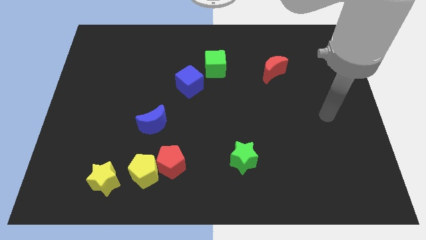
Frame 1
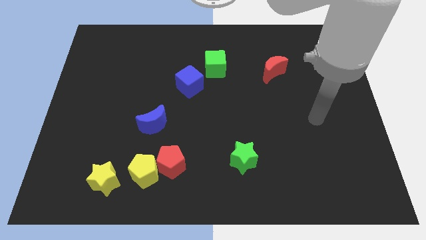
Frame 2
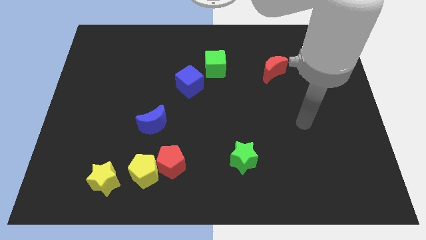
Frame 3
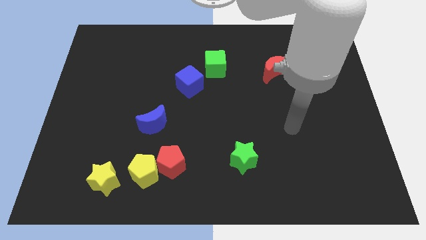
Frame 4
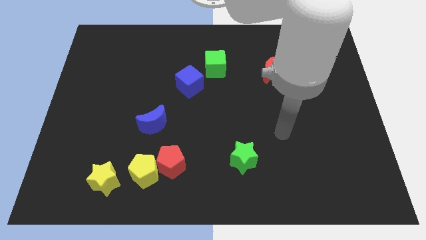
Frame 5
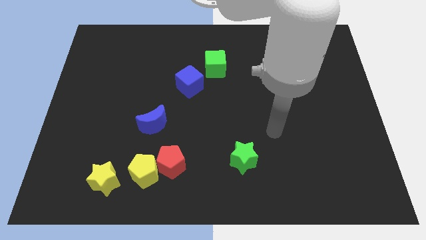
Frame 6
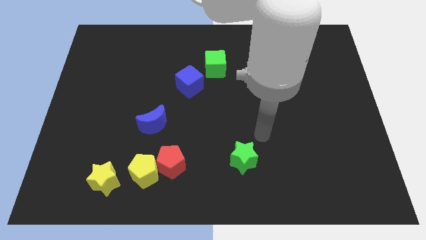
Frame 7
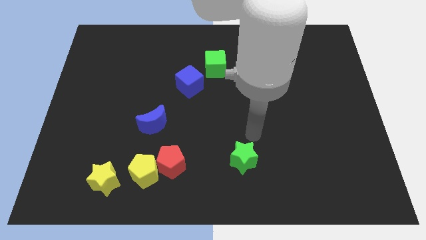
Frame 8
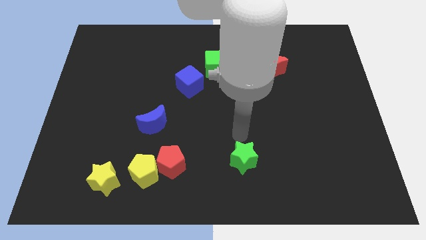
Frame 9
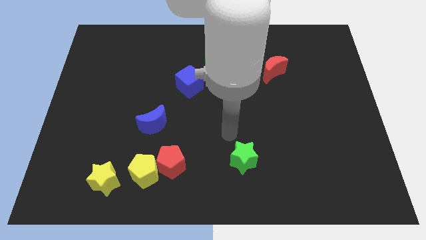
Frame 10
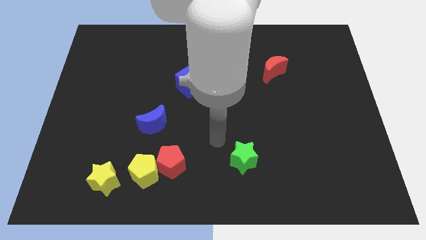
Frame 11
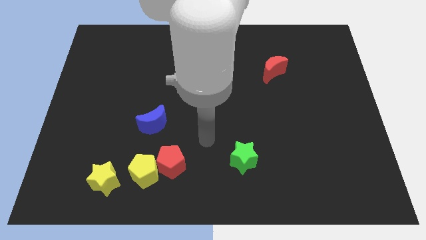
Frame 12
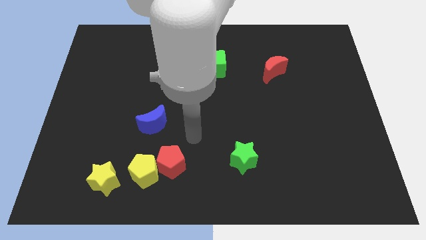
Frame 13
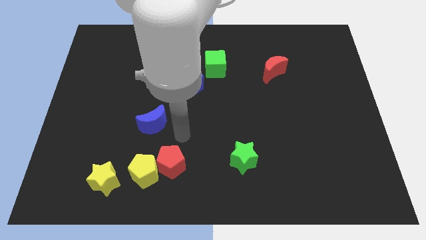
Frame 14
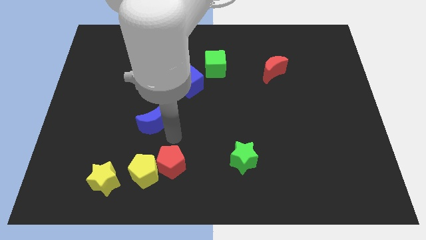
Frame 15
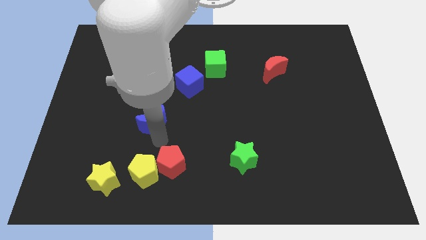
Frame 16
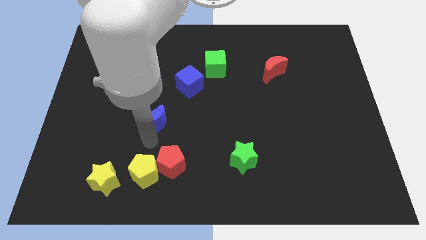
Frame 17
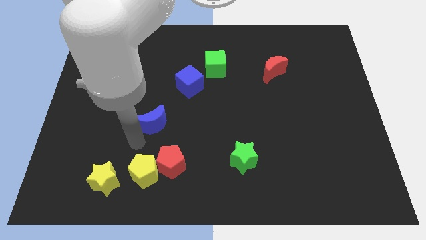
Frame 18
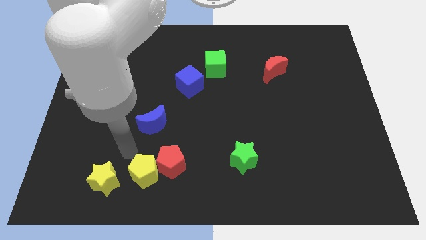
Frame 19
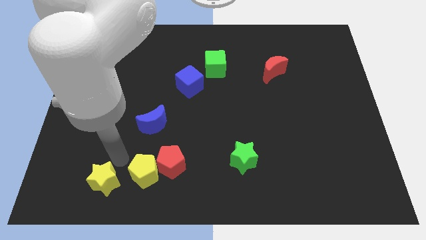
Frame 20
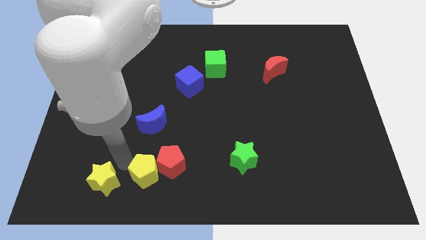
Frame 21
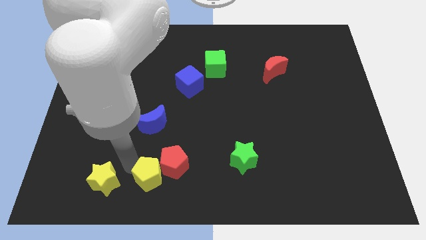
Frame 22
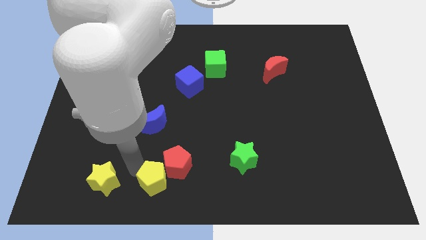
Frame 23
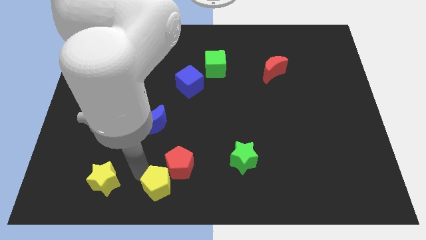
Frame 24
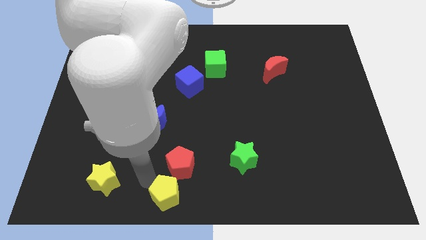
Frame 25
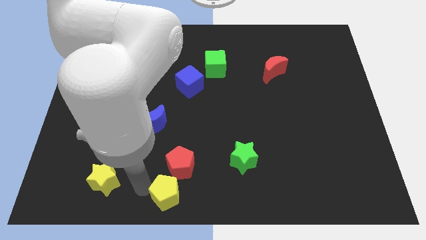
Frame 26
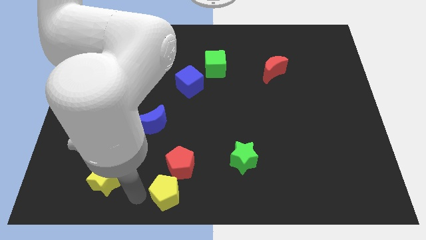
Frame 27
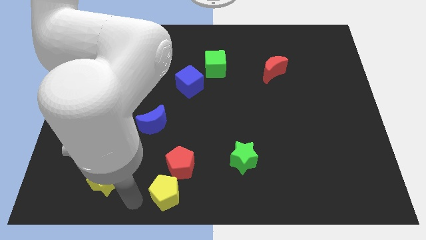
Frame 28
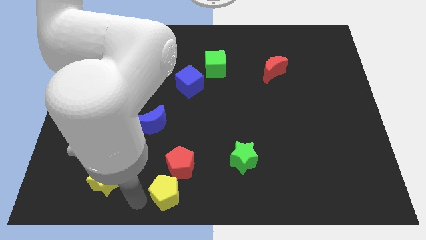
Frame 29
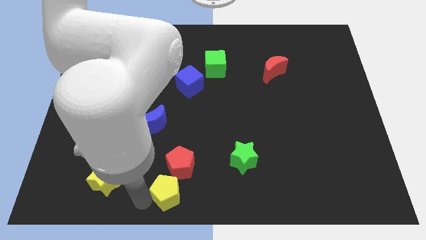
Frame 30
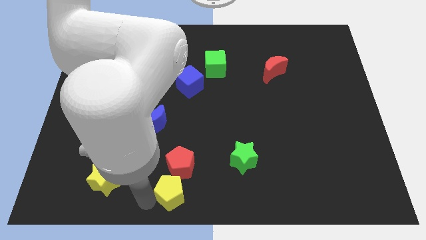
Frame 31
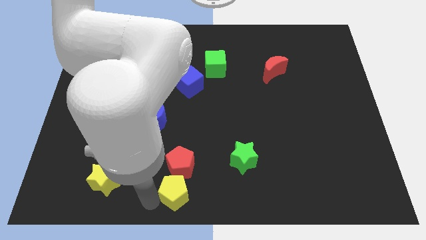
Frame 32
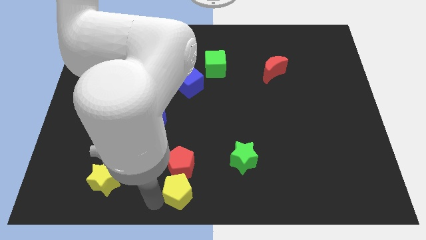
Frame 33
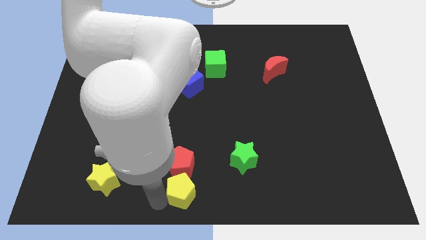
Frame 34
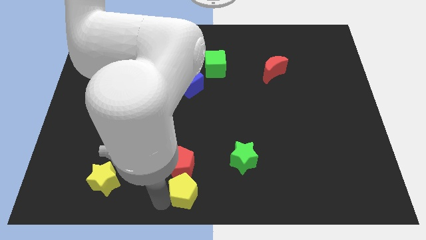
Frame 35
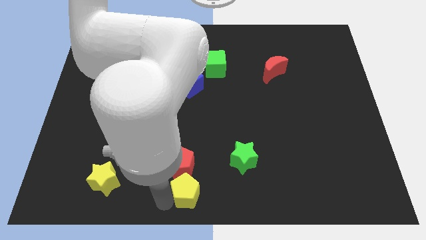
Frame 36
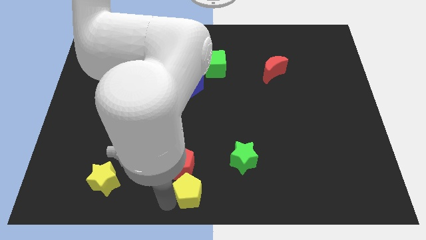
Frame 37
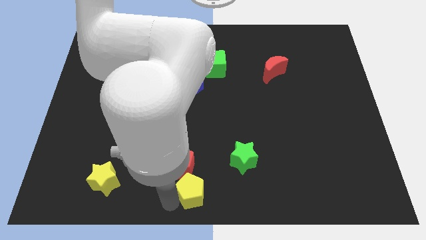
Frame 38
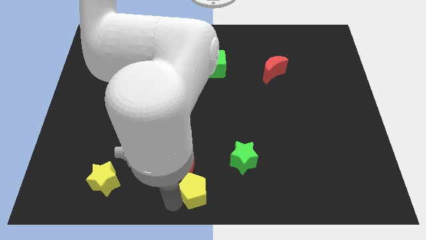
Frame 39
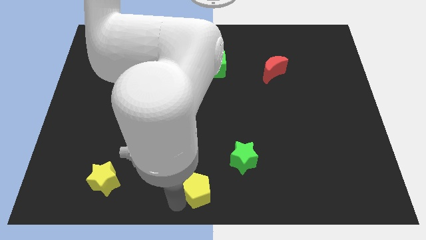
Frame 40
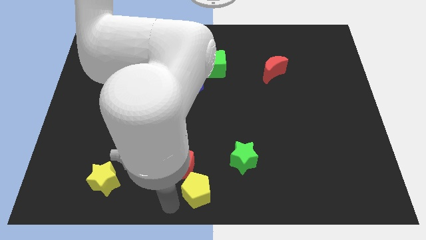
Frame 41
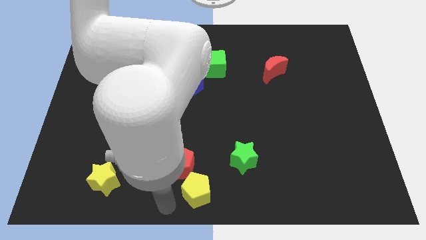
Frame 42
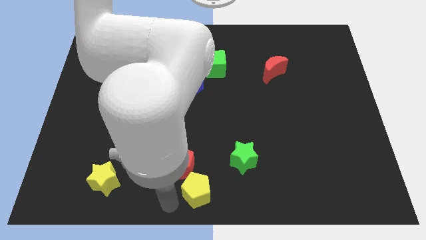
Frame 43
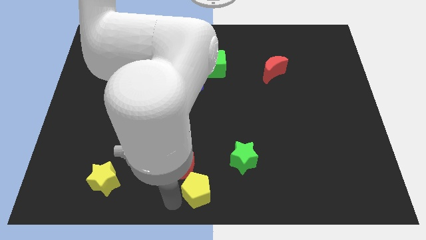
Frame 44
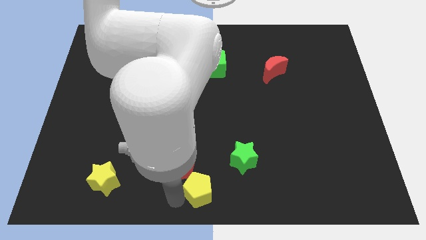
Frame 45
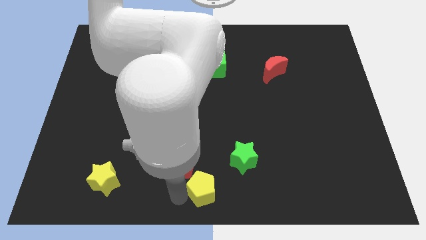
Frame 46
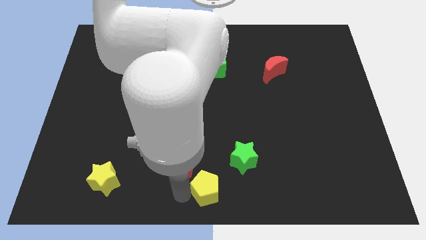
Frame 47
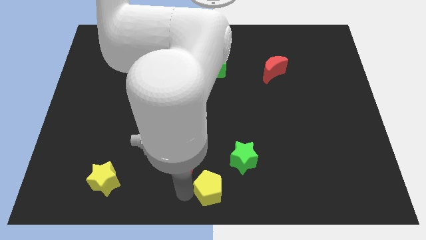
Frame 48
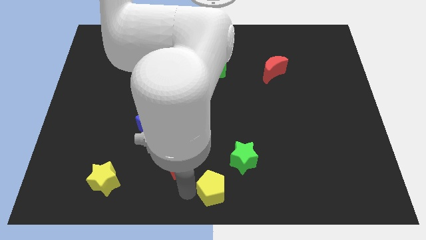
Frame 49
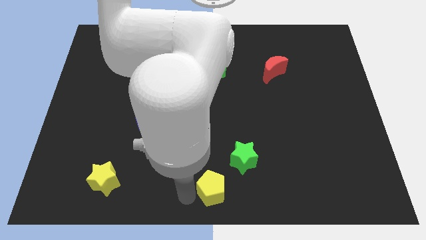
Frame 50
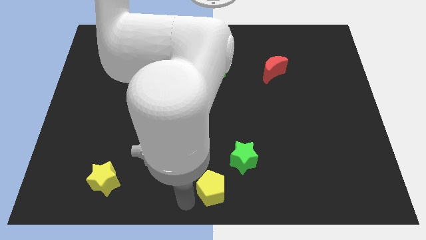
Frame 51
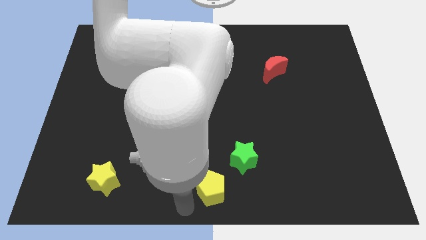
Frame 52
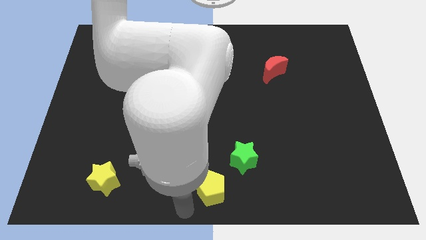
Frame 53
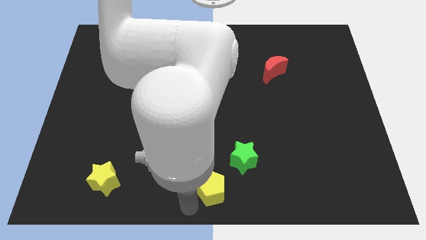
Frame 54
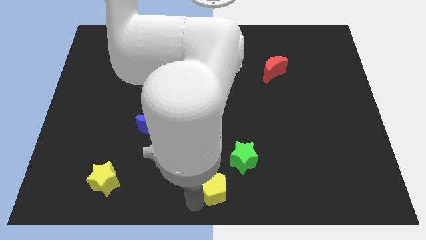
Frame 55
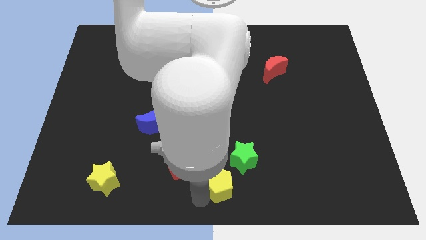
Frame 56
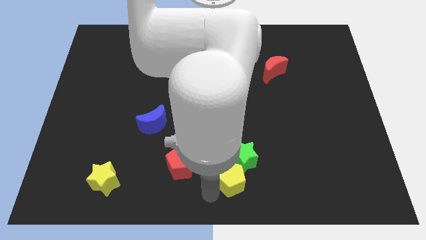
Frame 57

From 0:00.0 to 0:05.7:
put the yellow pentagon towards the green star

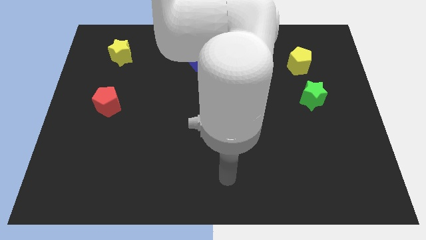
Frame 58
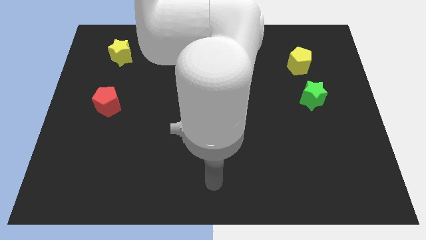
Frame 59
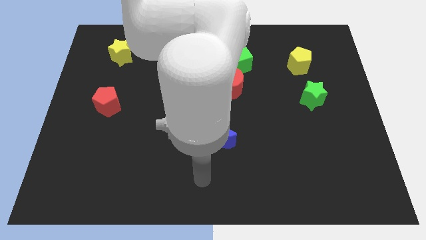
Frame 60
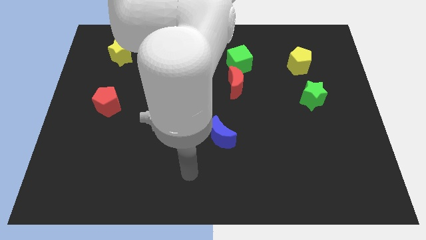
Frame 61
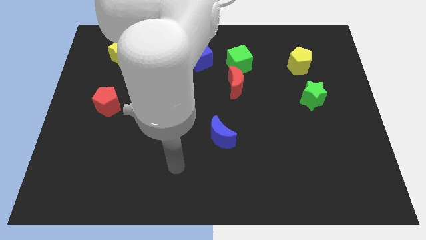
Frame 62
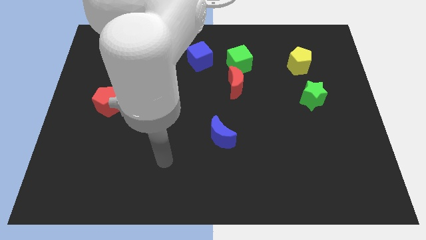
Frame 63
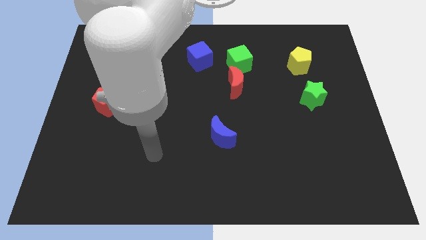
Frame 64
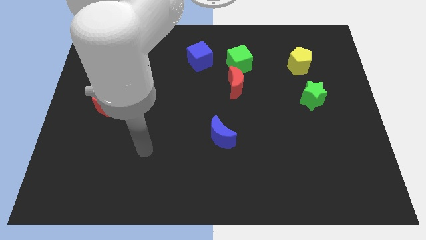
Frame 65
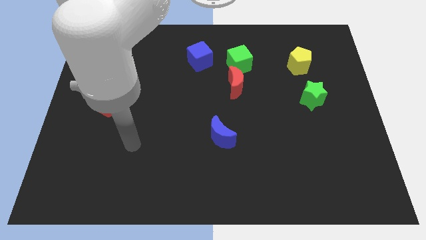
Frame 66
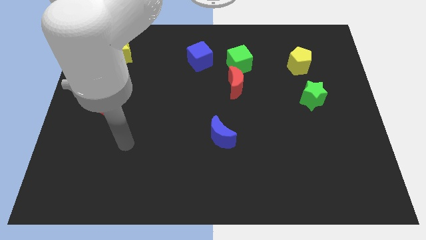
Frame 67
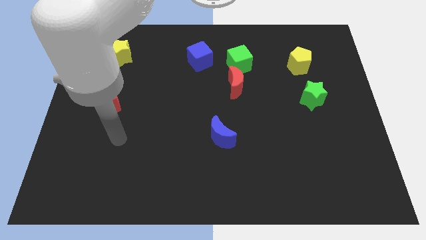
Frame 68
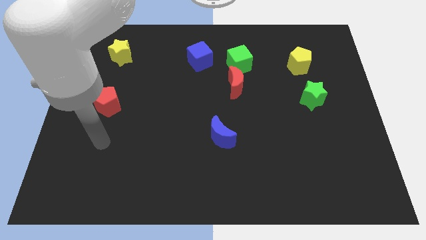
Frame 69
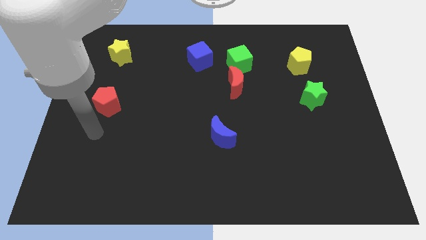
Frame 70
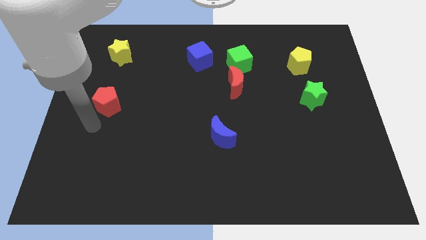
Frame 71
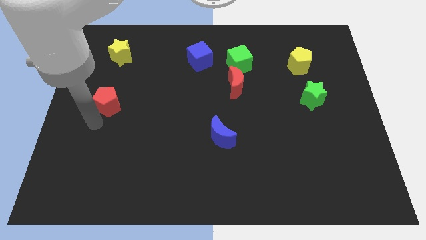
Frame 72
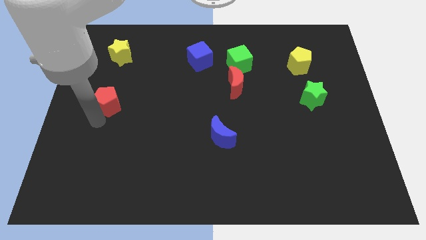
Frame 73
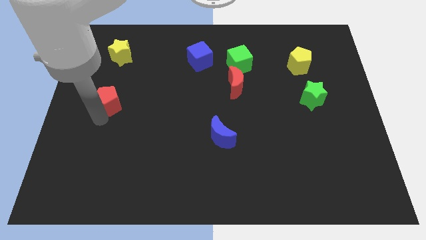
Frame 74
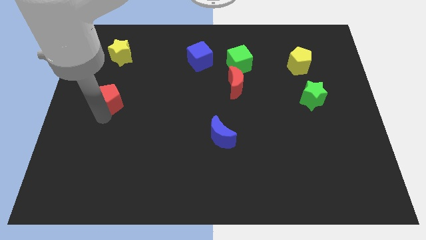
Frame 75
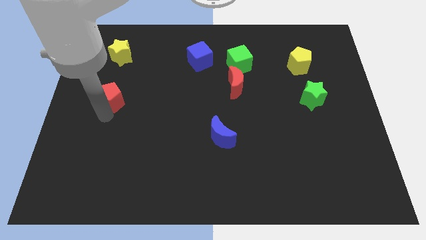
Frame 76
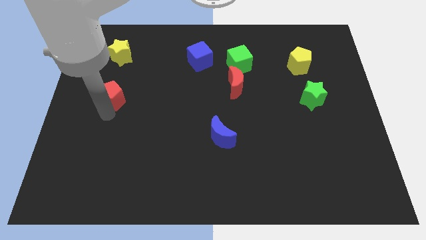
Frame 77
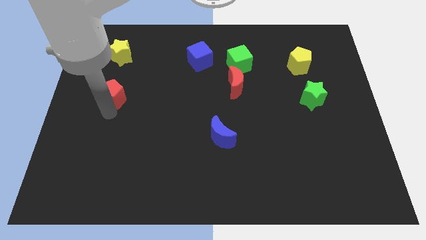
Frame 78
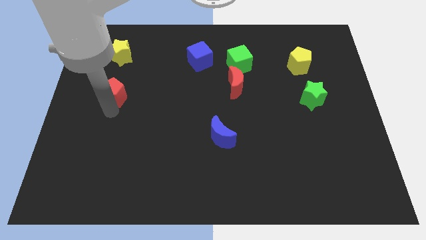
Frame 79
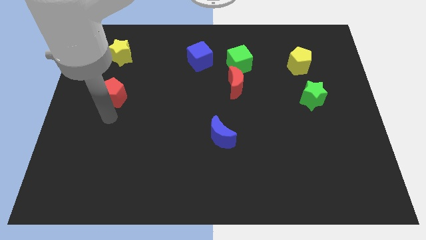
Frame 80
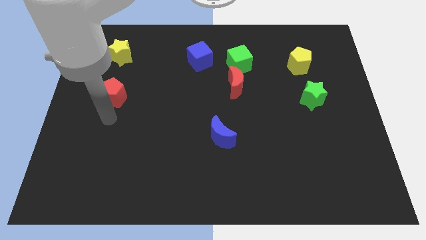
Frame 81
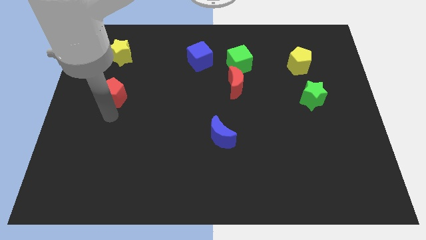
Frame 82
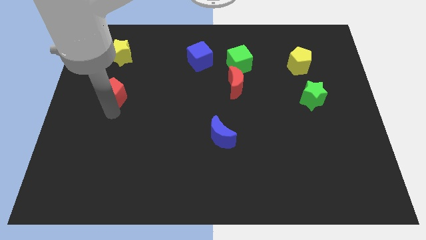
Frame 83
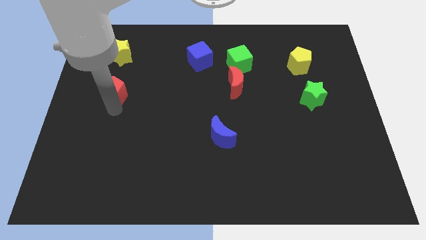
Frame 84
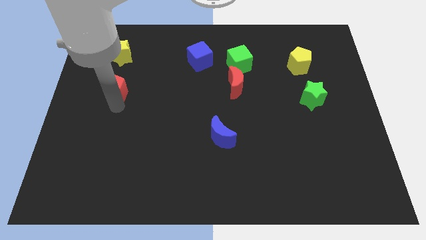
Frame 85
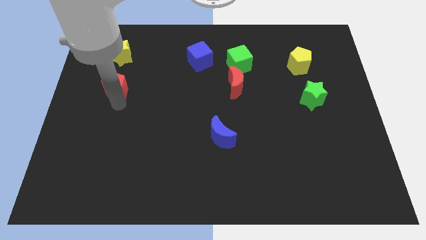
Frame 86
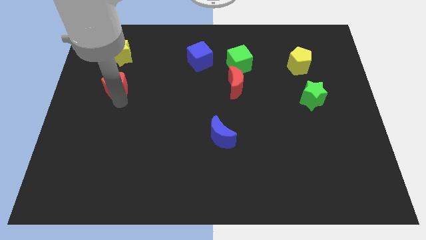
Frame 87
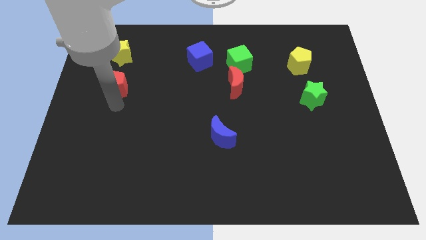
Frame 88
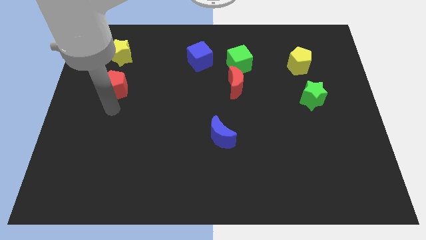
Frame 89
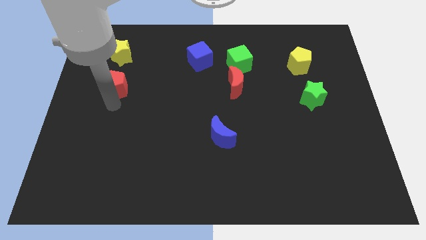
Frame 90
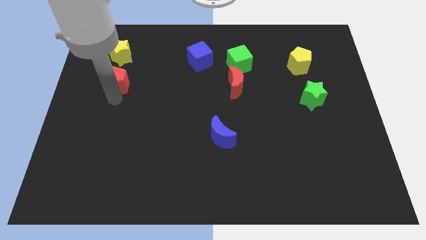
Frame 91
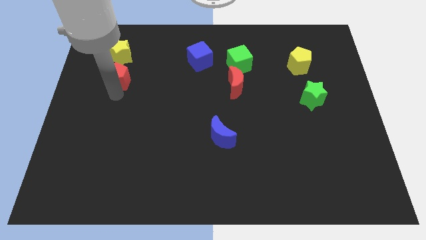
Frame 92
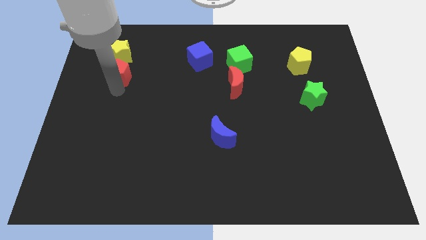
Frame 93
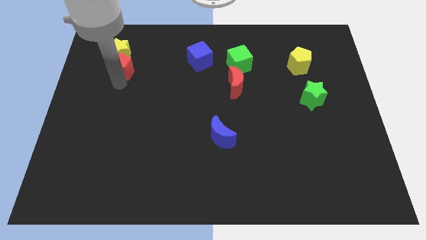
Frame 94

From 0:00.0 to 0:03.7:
push the red pentagon towards the yellow star
